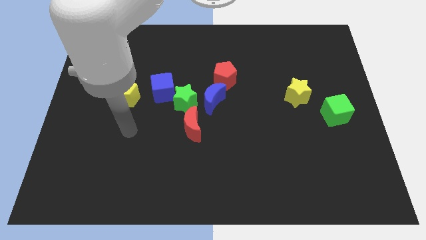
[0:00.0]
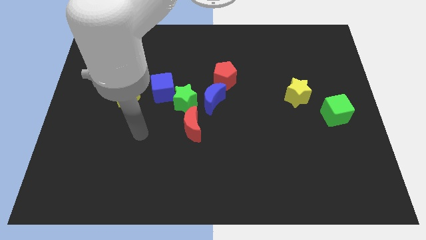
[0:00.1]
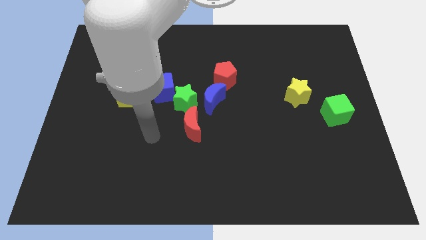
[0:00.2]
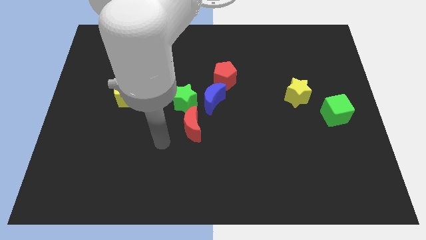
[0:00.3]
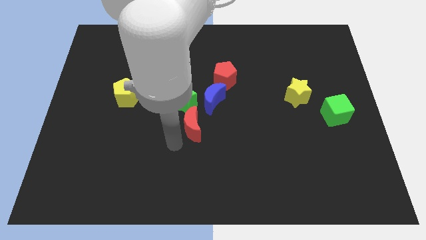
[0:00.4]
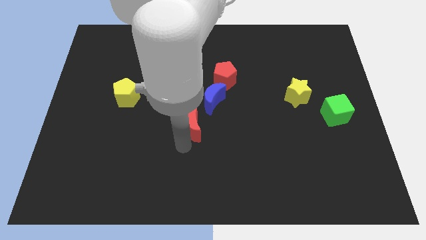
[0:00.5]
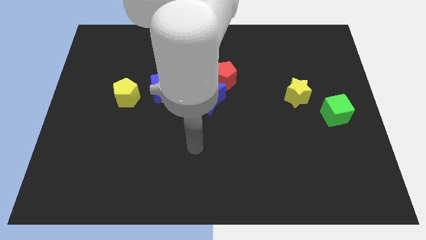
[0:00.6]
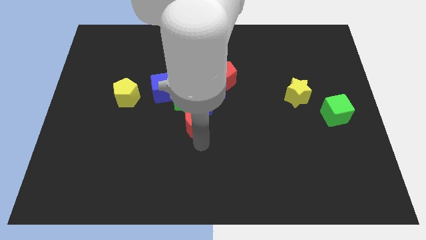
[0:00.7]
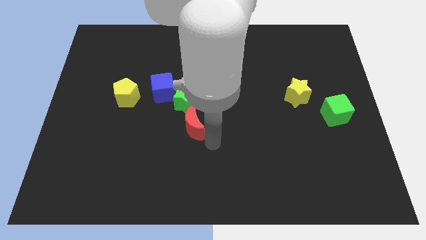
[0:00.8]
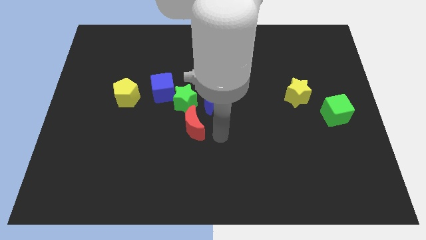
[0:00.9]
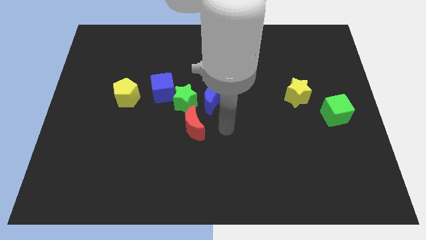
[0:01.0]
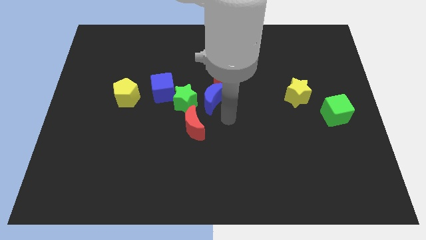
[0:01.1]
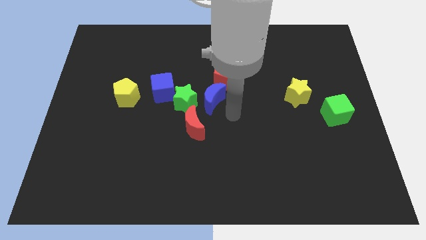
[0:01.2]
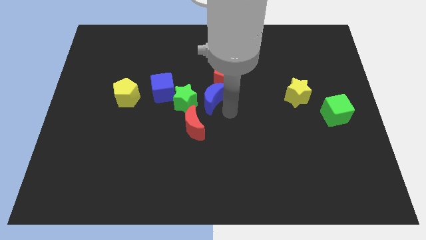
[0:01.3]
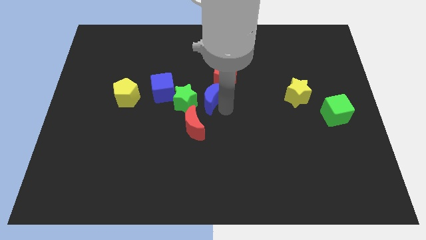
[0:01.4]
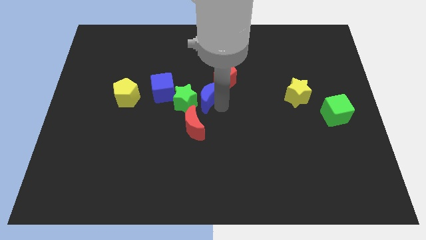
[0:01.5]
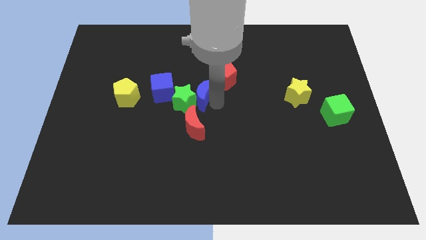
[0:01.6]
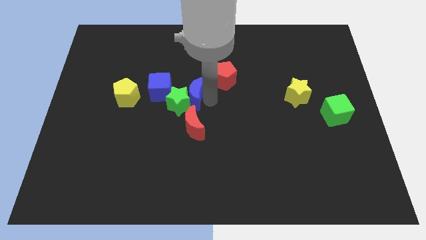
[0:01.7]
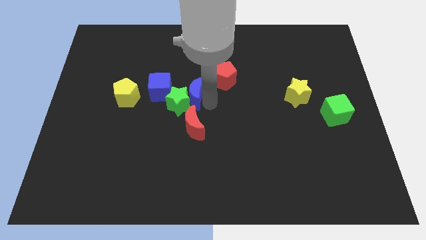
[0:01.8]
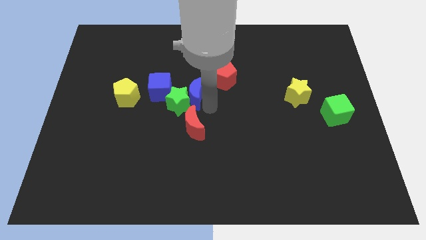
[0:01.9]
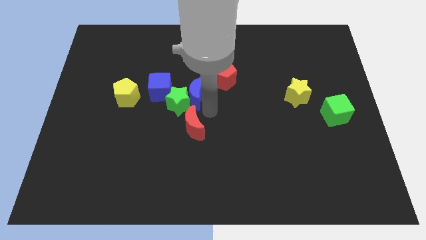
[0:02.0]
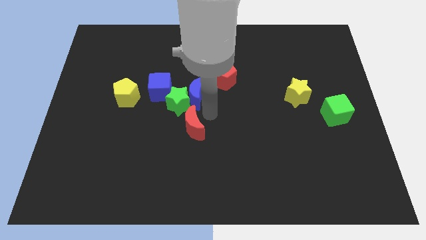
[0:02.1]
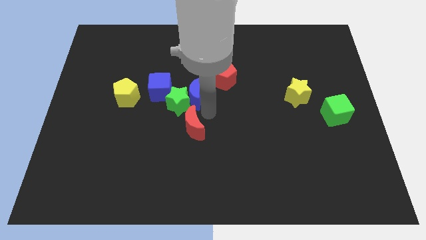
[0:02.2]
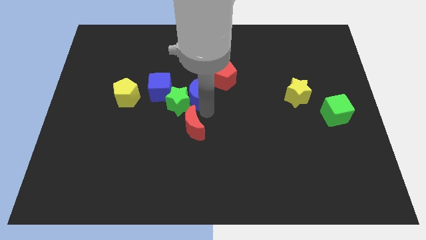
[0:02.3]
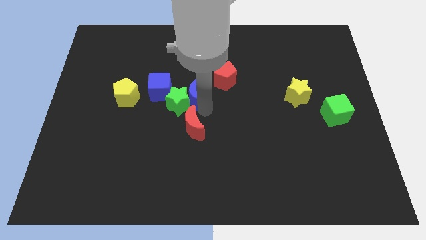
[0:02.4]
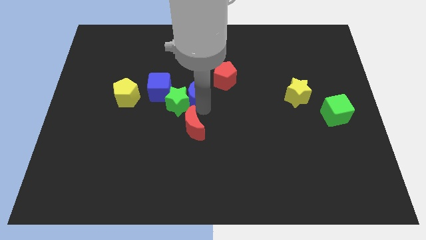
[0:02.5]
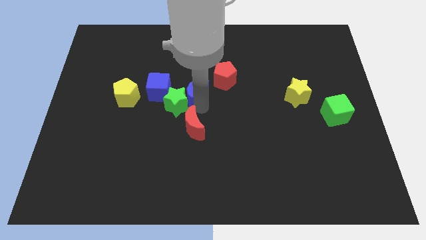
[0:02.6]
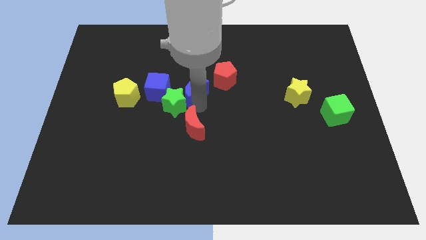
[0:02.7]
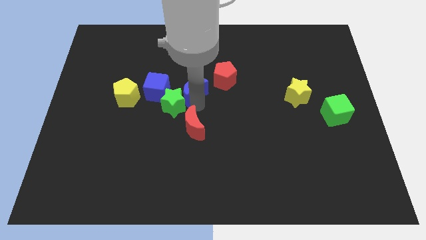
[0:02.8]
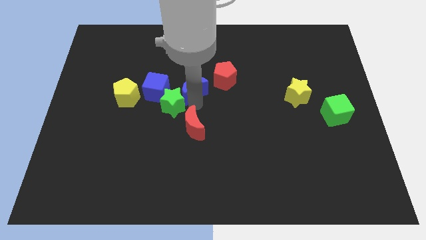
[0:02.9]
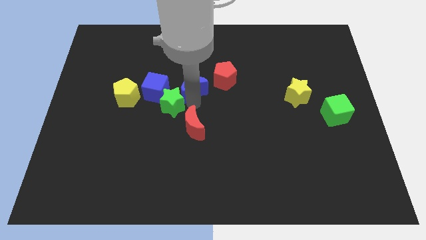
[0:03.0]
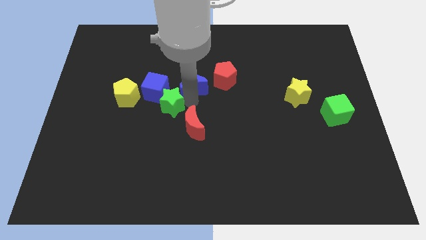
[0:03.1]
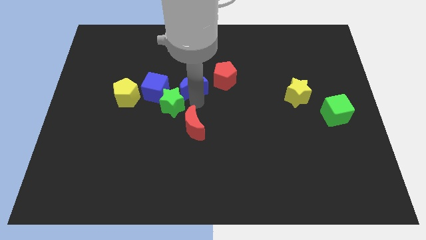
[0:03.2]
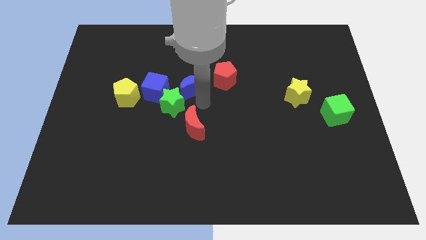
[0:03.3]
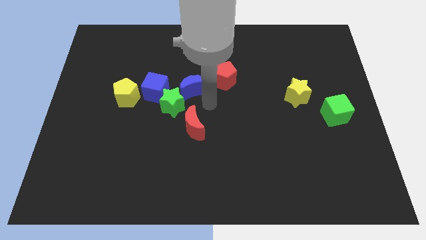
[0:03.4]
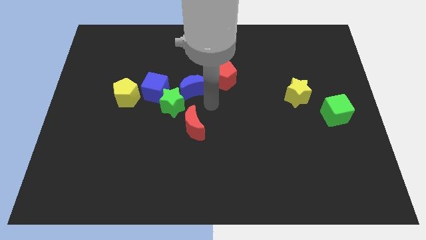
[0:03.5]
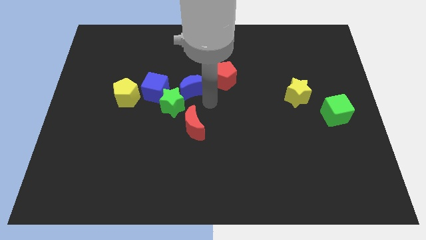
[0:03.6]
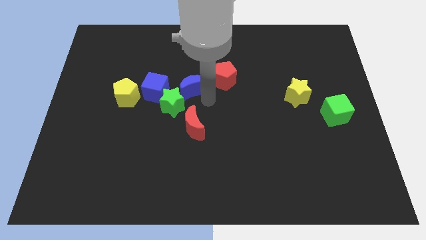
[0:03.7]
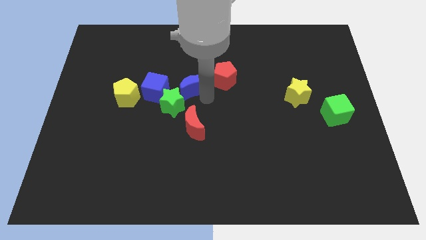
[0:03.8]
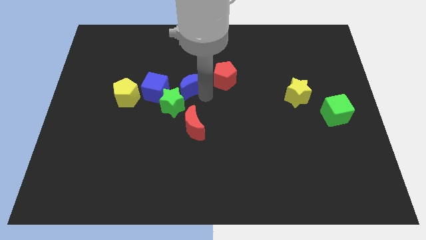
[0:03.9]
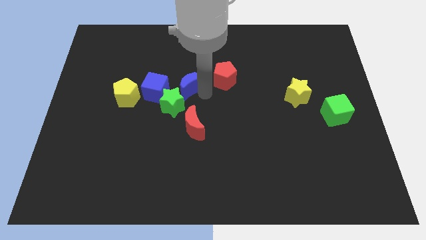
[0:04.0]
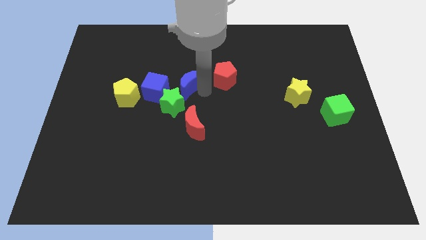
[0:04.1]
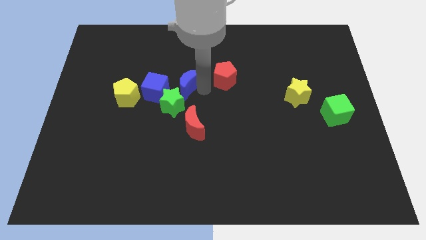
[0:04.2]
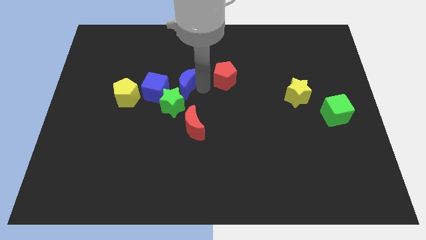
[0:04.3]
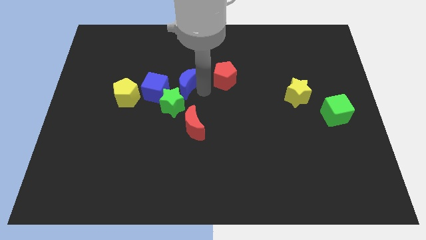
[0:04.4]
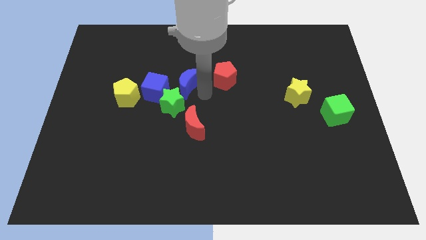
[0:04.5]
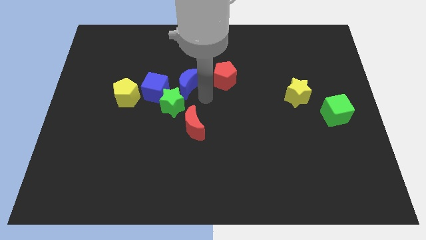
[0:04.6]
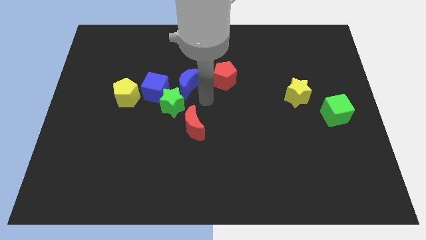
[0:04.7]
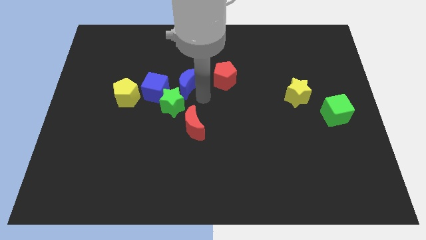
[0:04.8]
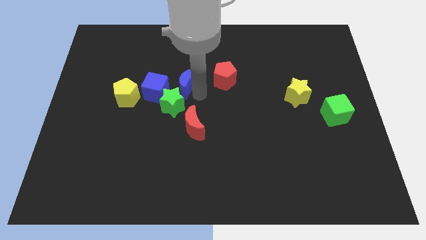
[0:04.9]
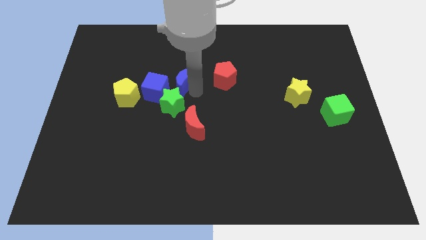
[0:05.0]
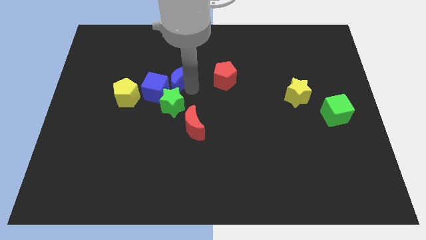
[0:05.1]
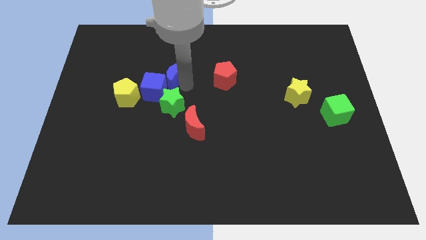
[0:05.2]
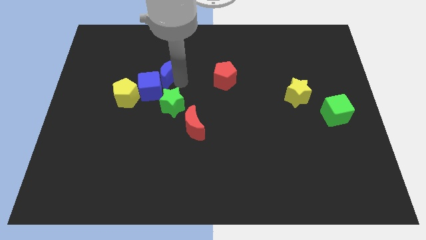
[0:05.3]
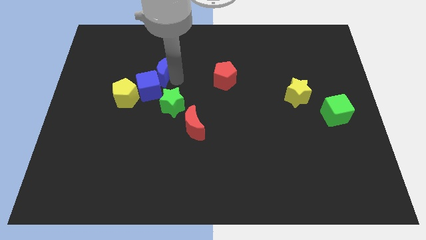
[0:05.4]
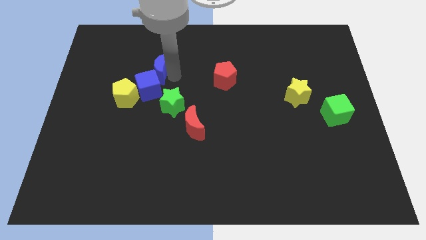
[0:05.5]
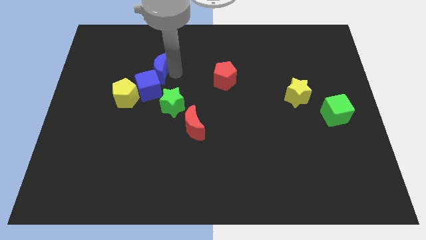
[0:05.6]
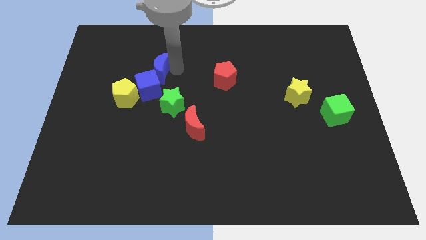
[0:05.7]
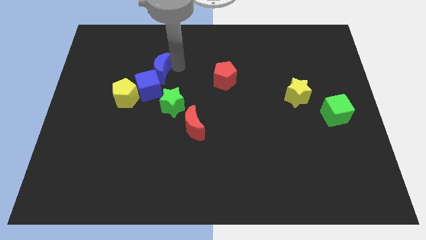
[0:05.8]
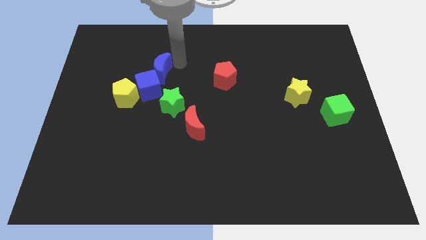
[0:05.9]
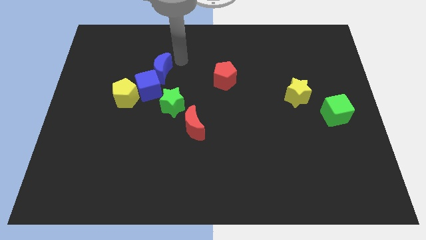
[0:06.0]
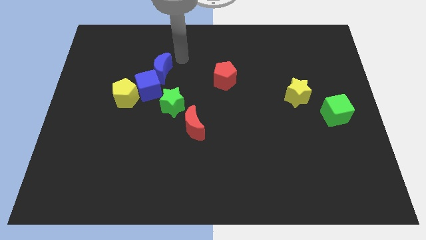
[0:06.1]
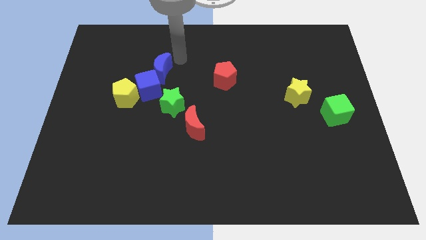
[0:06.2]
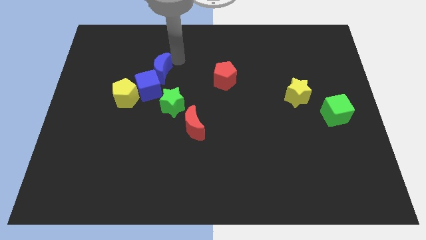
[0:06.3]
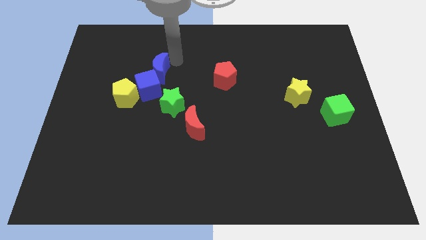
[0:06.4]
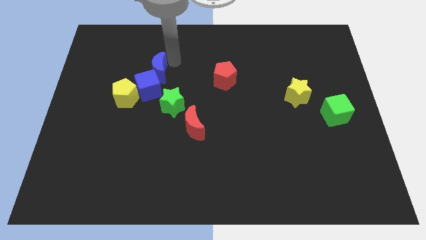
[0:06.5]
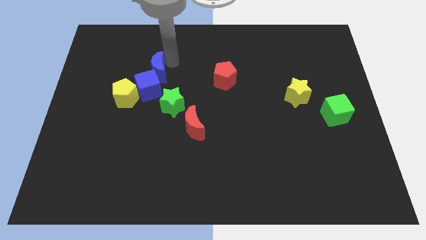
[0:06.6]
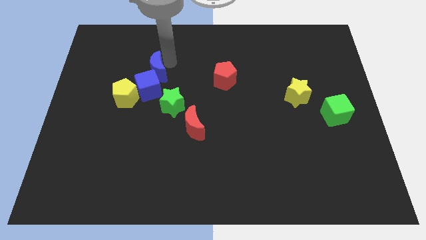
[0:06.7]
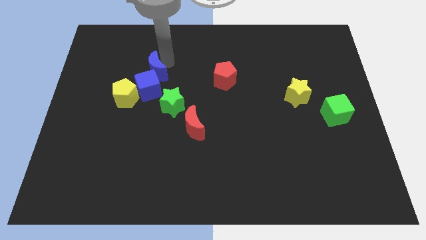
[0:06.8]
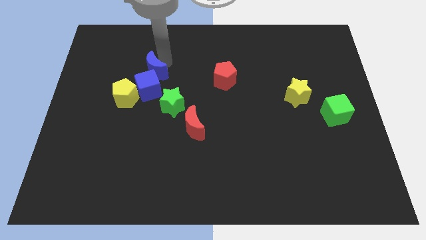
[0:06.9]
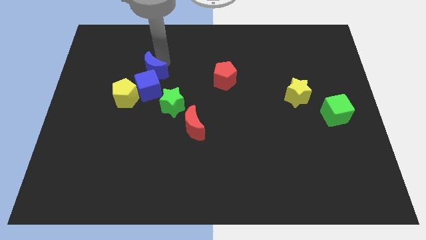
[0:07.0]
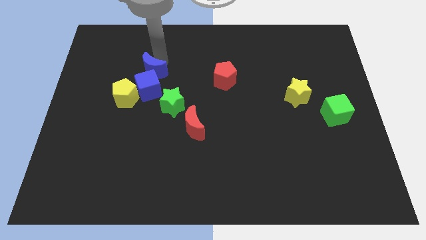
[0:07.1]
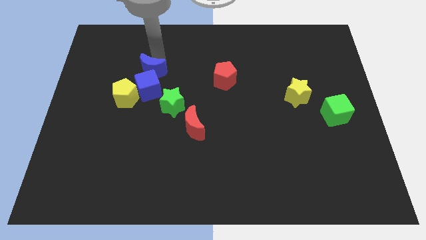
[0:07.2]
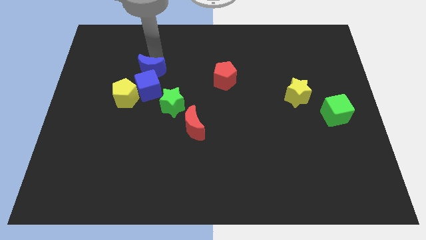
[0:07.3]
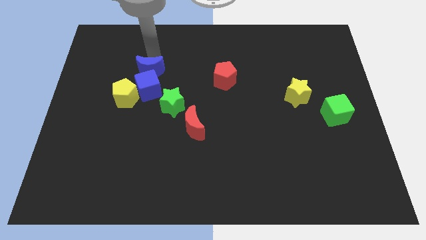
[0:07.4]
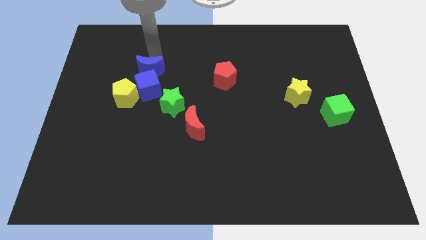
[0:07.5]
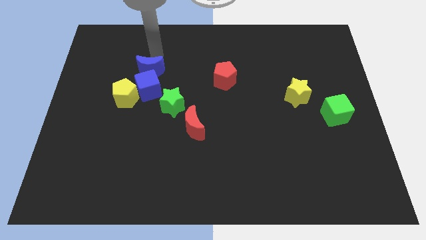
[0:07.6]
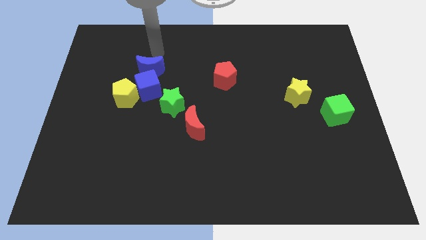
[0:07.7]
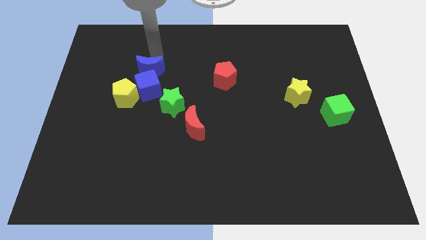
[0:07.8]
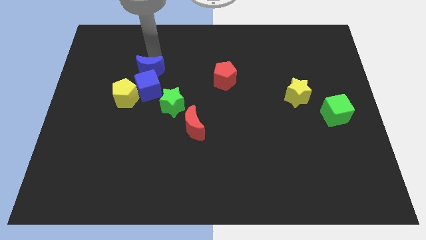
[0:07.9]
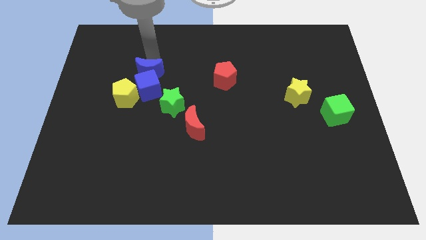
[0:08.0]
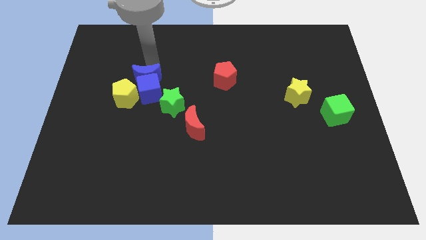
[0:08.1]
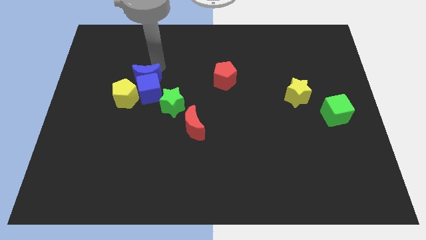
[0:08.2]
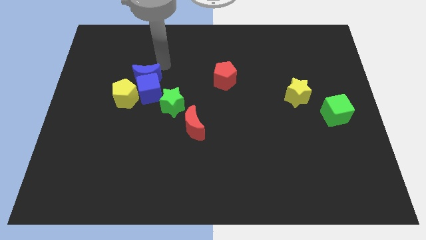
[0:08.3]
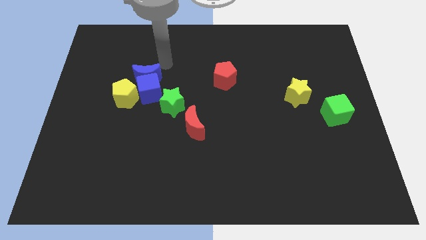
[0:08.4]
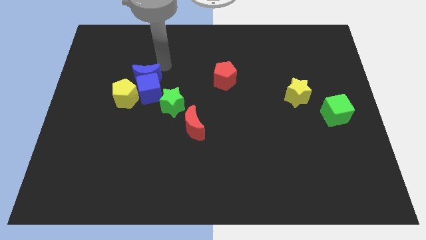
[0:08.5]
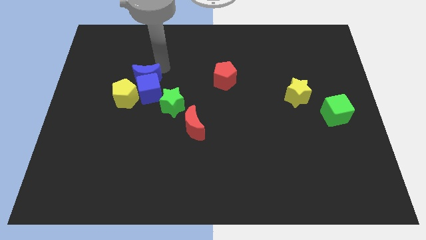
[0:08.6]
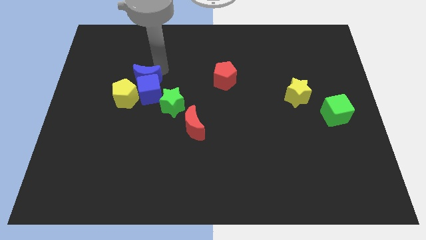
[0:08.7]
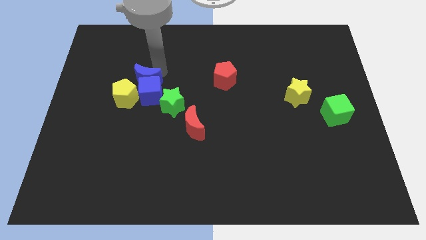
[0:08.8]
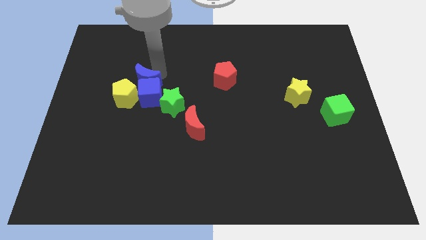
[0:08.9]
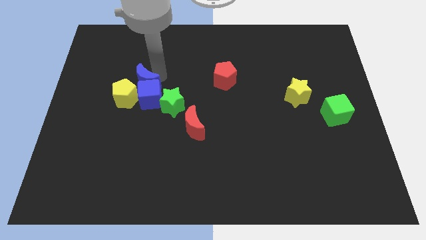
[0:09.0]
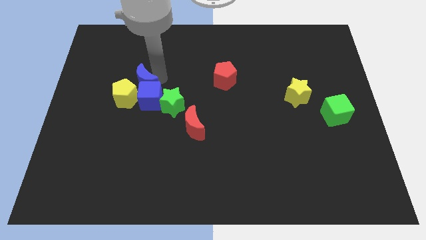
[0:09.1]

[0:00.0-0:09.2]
push the blue moon next to the yellow pentagon
